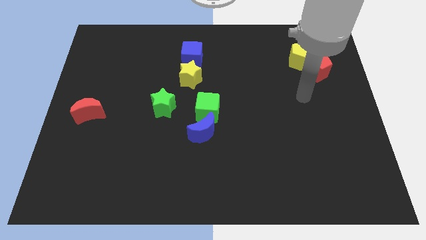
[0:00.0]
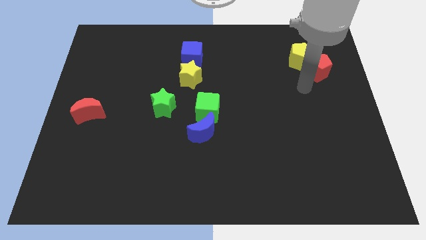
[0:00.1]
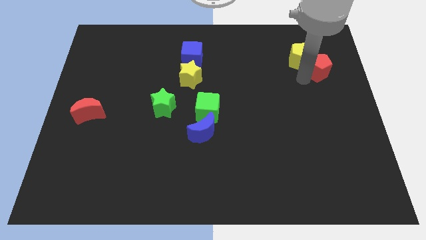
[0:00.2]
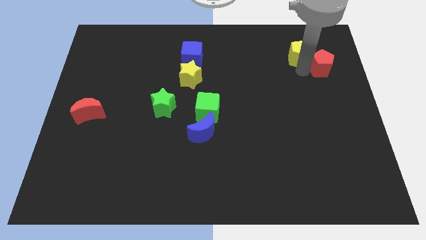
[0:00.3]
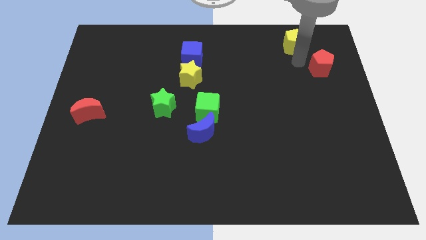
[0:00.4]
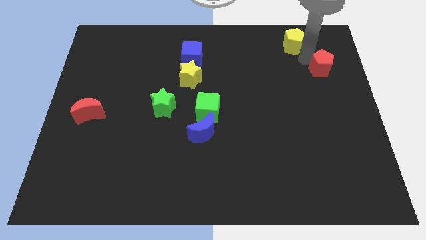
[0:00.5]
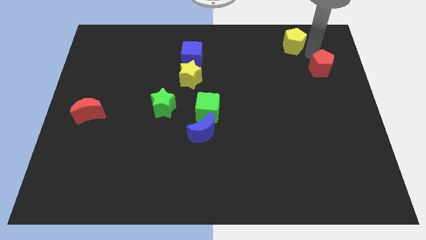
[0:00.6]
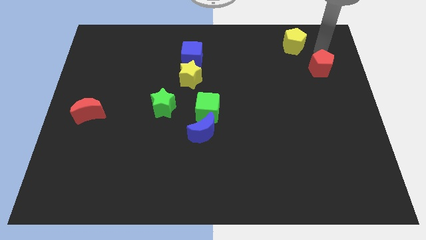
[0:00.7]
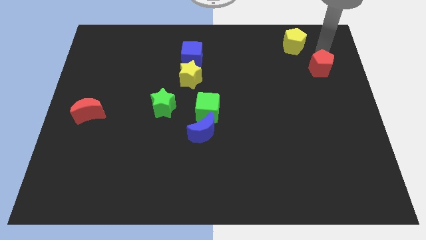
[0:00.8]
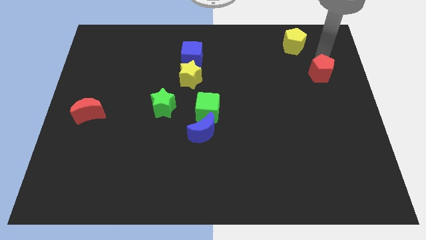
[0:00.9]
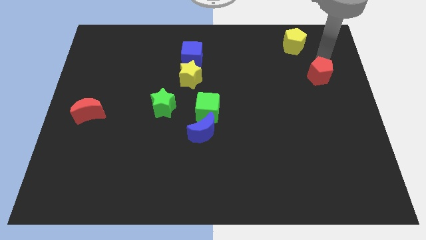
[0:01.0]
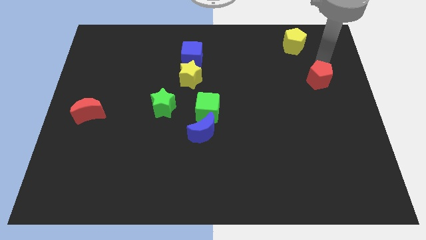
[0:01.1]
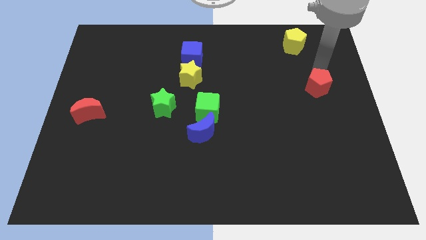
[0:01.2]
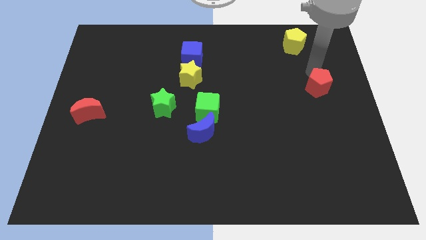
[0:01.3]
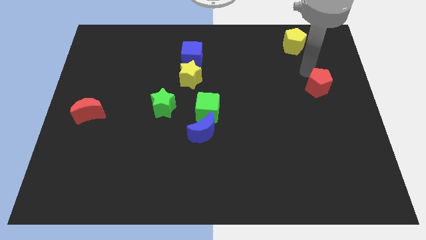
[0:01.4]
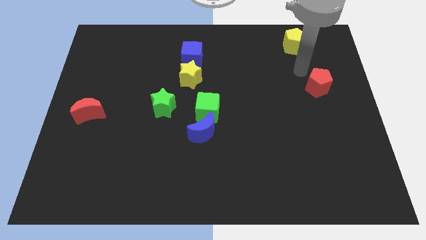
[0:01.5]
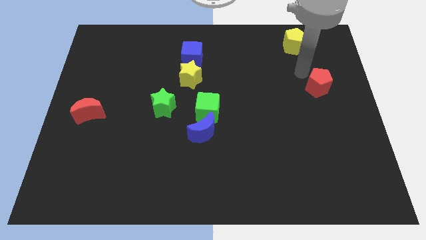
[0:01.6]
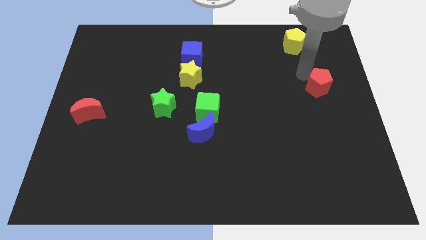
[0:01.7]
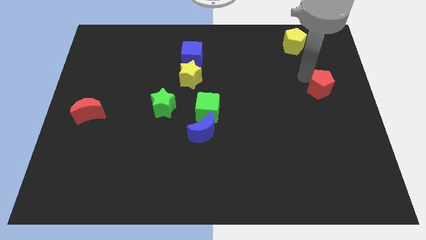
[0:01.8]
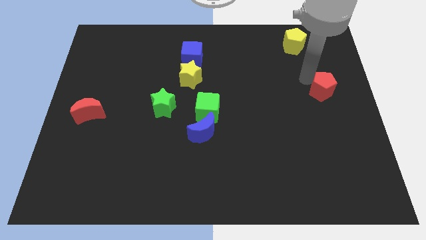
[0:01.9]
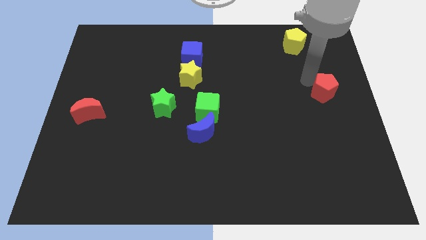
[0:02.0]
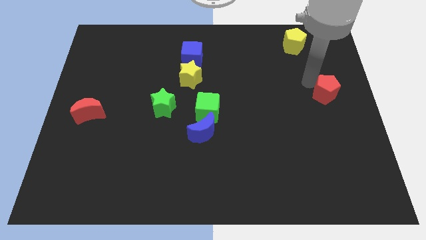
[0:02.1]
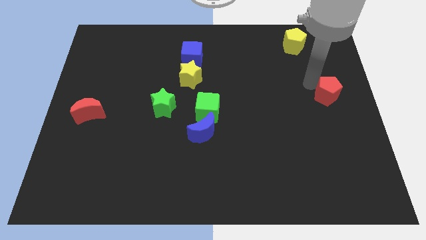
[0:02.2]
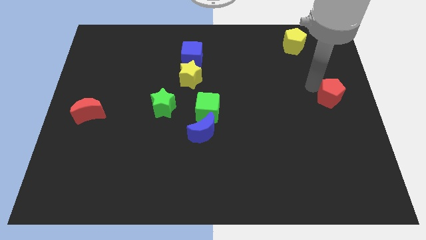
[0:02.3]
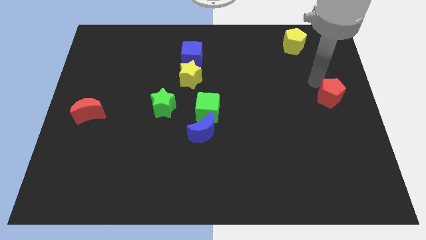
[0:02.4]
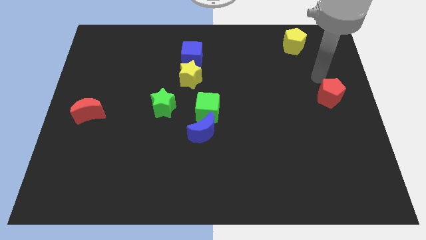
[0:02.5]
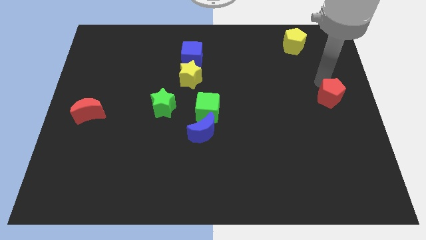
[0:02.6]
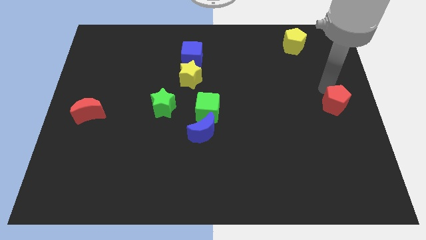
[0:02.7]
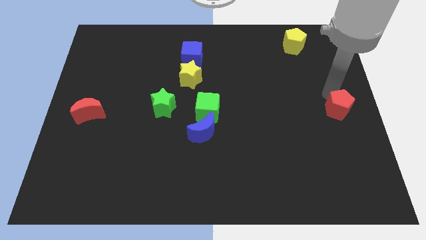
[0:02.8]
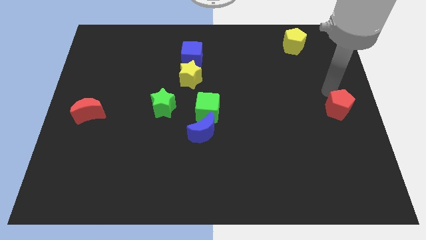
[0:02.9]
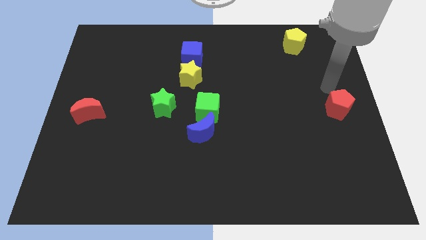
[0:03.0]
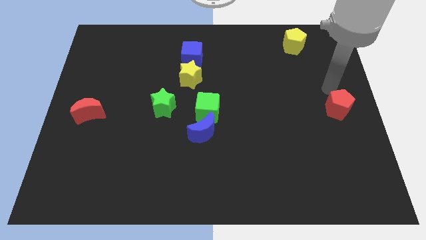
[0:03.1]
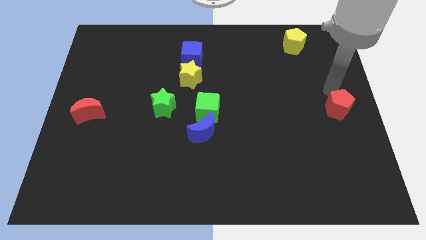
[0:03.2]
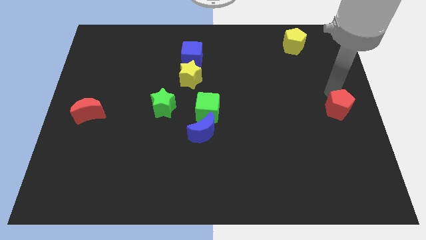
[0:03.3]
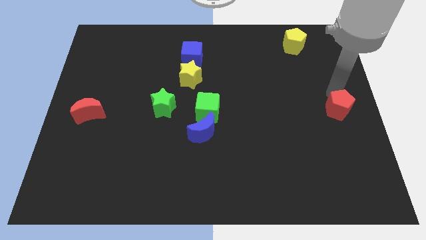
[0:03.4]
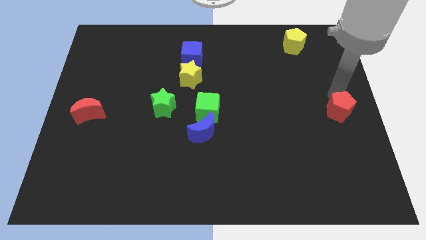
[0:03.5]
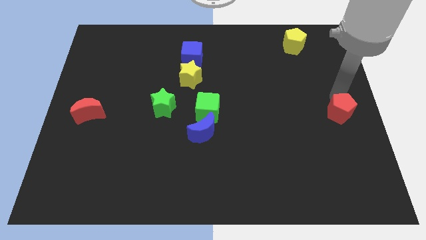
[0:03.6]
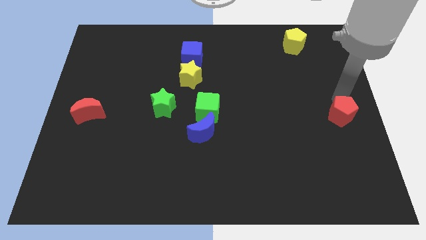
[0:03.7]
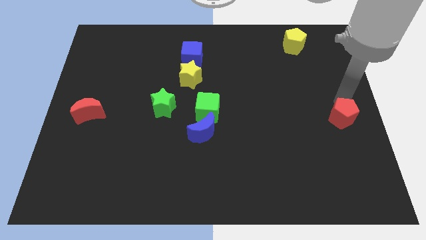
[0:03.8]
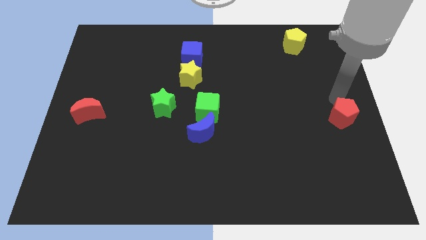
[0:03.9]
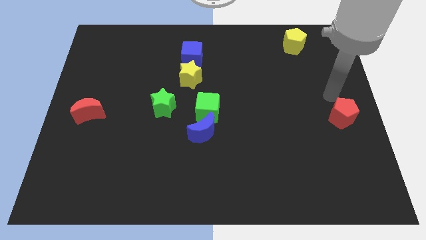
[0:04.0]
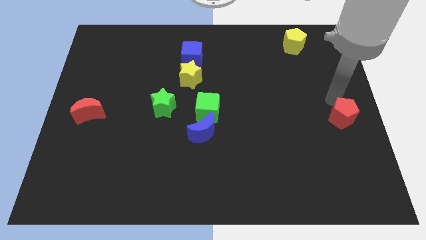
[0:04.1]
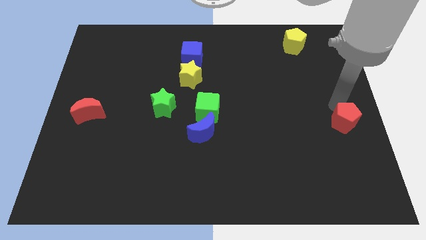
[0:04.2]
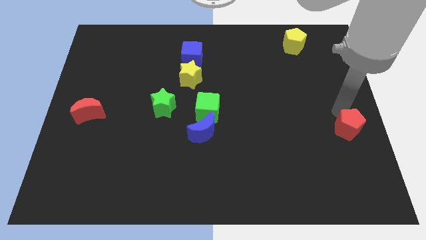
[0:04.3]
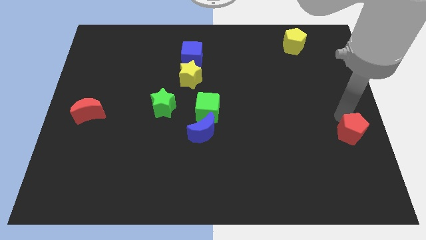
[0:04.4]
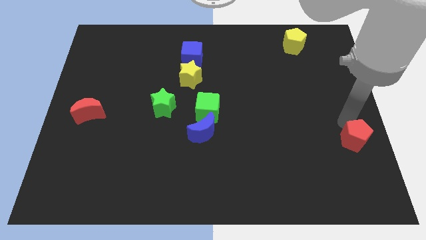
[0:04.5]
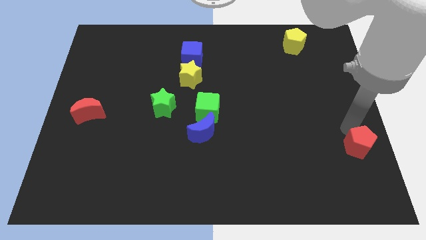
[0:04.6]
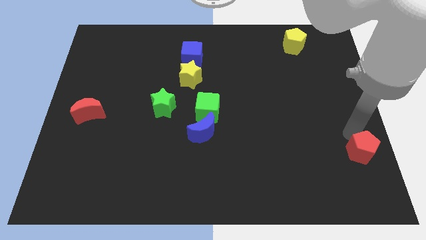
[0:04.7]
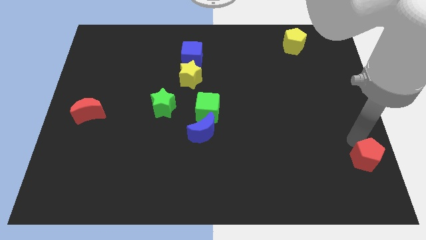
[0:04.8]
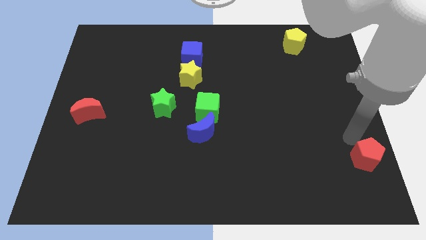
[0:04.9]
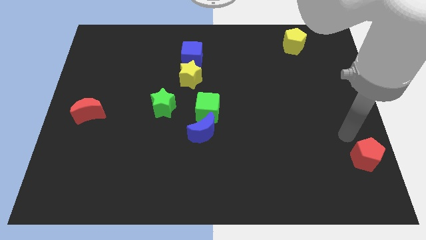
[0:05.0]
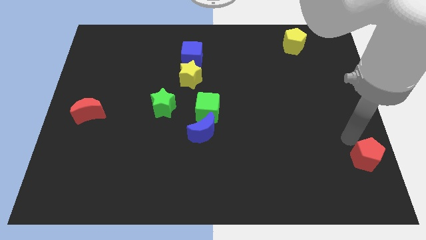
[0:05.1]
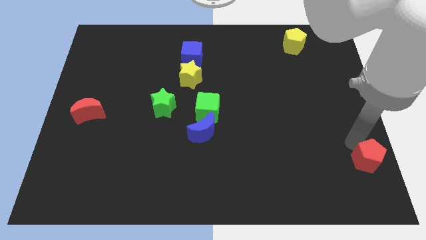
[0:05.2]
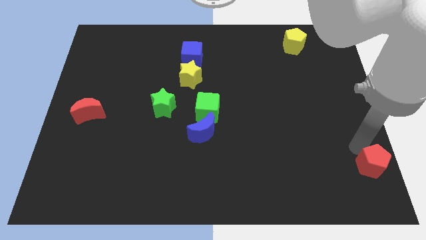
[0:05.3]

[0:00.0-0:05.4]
push the red pentagon to the bottom right of the board

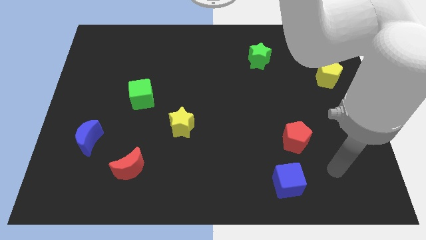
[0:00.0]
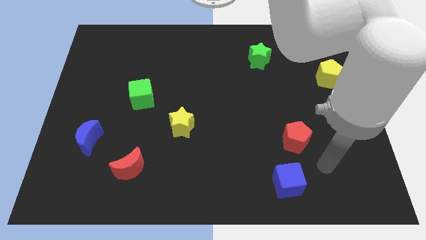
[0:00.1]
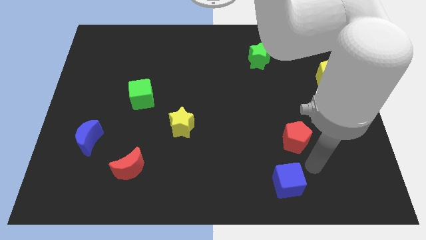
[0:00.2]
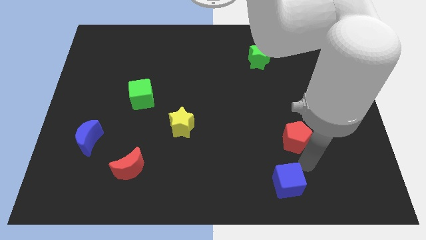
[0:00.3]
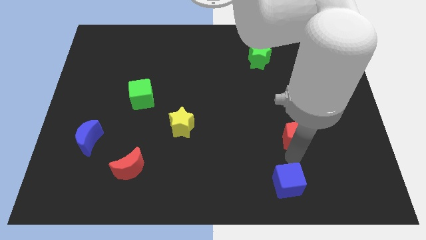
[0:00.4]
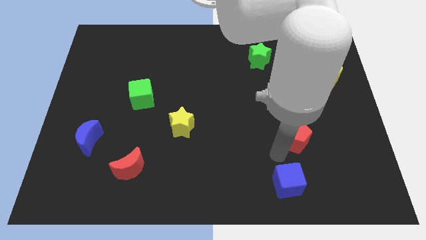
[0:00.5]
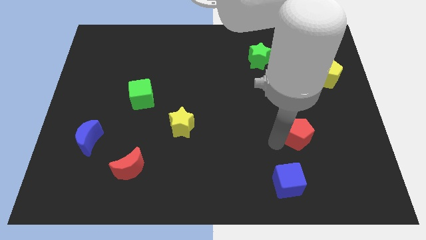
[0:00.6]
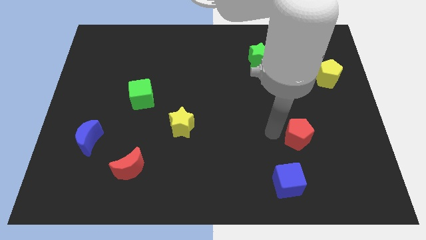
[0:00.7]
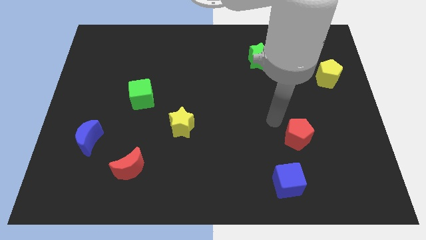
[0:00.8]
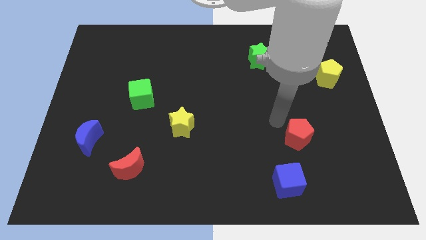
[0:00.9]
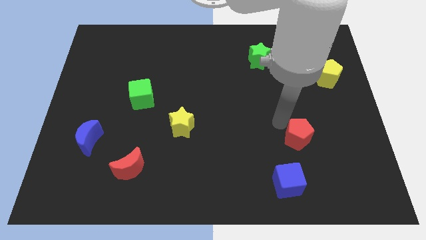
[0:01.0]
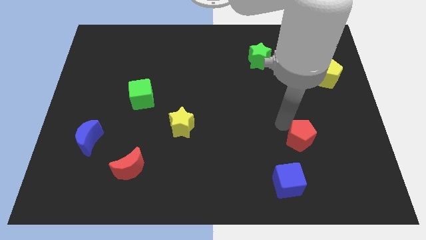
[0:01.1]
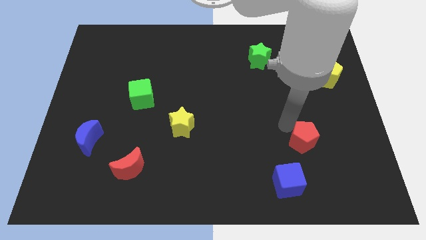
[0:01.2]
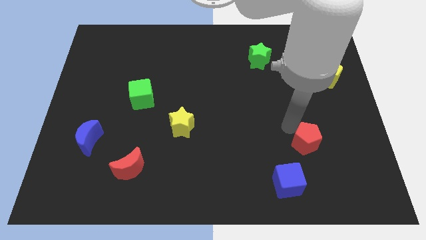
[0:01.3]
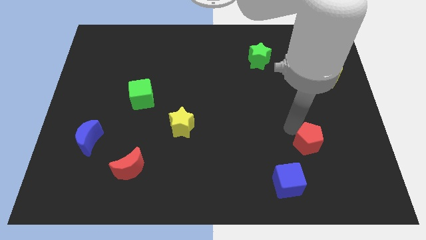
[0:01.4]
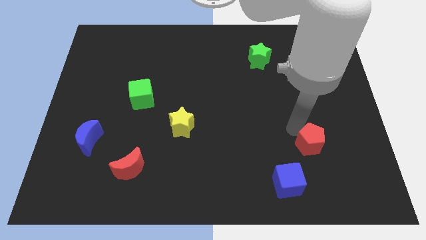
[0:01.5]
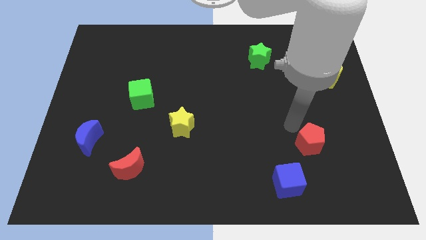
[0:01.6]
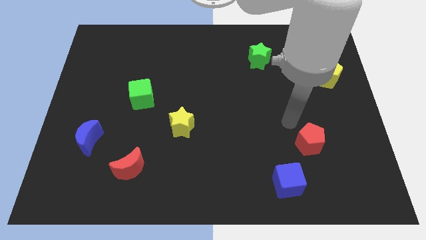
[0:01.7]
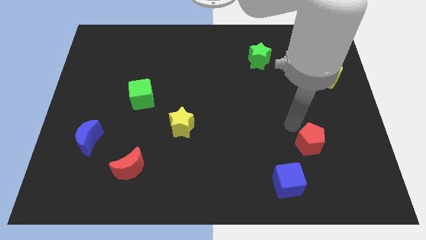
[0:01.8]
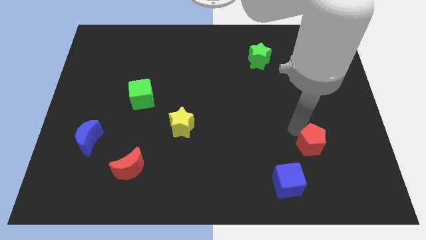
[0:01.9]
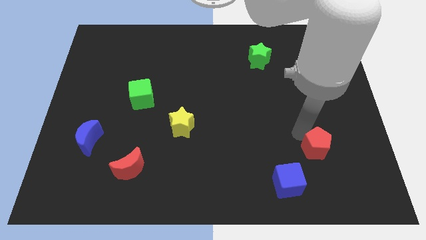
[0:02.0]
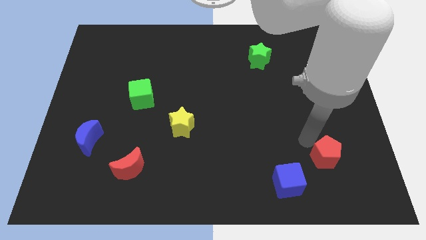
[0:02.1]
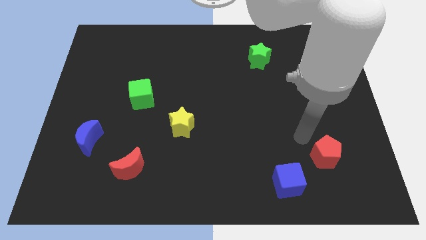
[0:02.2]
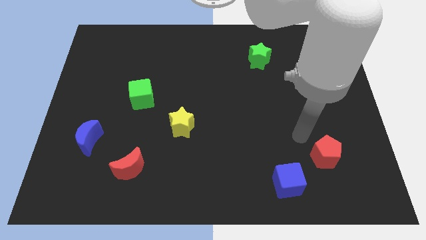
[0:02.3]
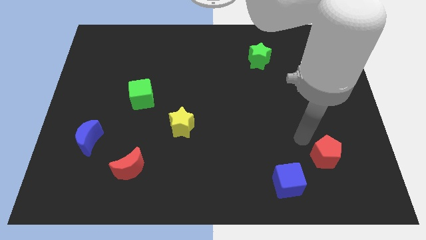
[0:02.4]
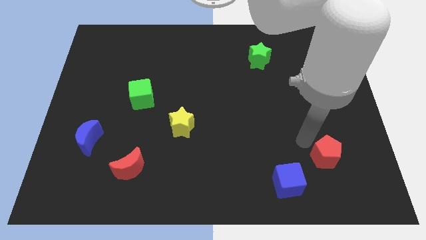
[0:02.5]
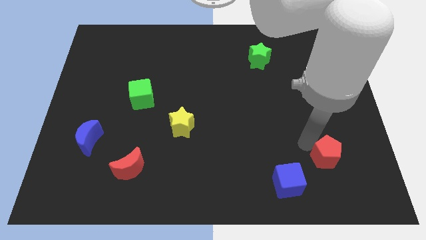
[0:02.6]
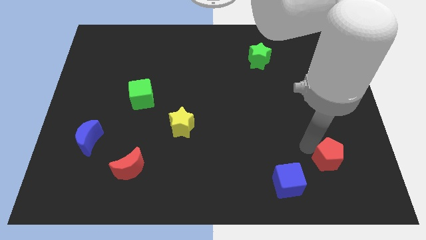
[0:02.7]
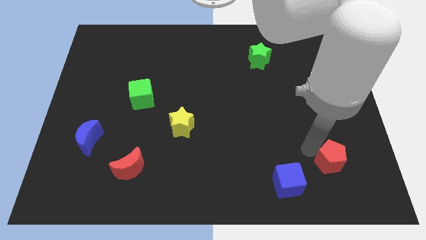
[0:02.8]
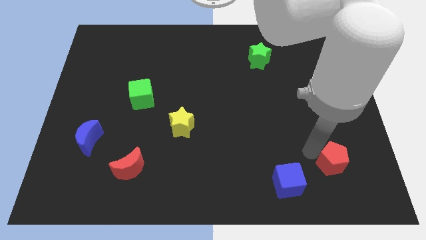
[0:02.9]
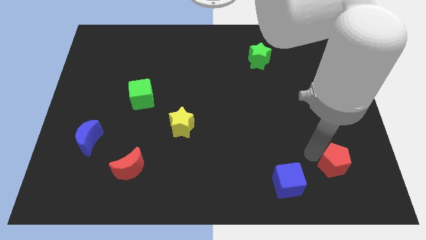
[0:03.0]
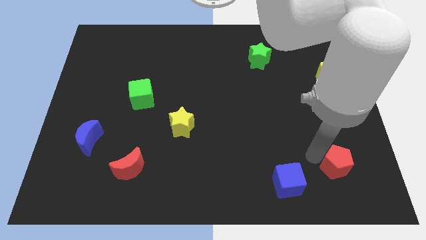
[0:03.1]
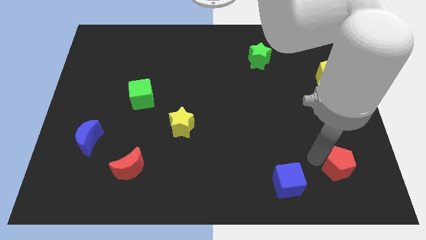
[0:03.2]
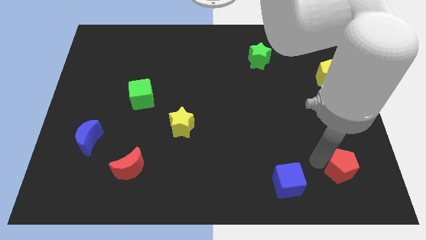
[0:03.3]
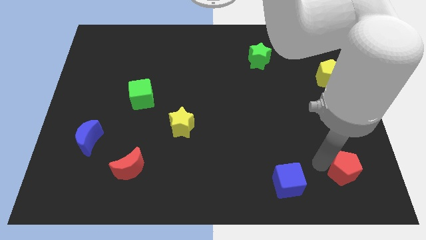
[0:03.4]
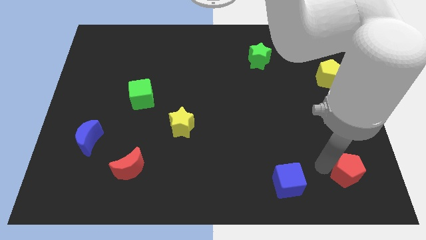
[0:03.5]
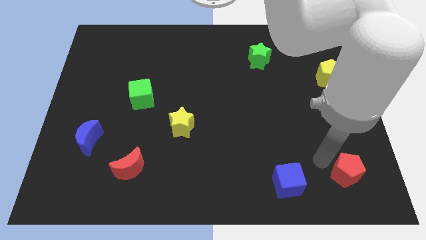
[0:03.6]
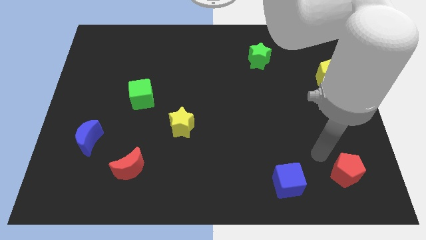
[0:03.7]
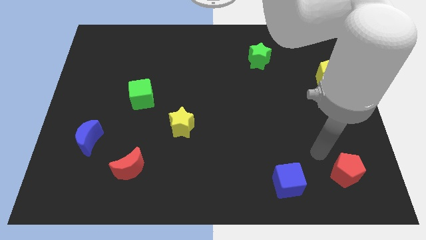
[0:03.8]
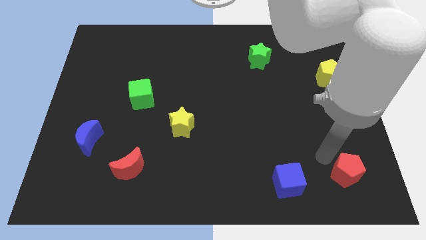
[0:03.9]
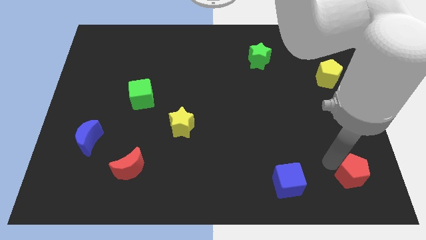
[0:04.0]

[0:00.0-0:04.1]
move the red pentagon to the lower right corner
